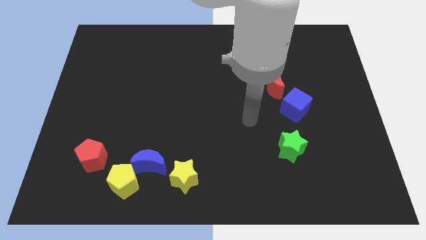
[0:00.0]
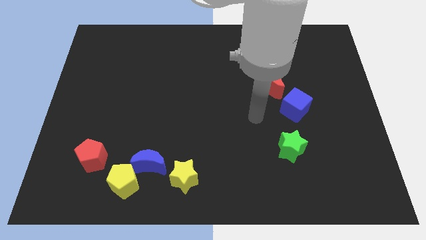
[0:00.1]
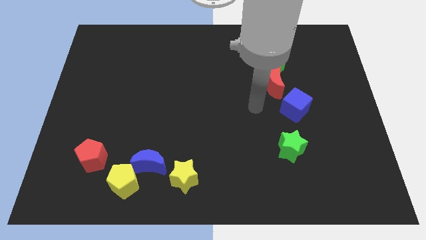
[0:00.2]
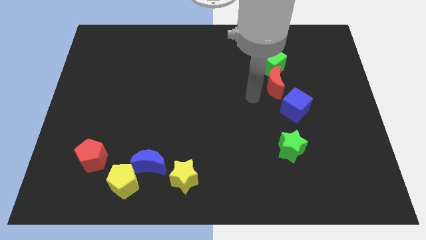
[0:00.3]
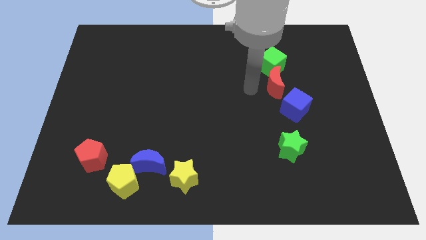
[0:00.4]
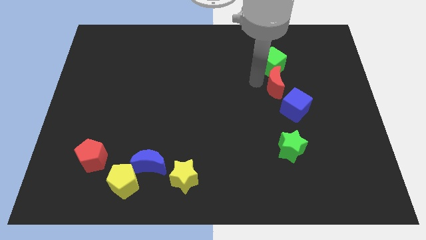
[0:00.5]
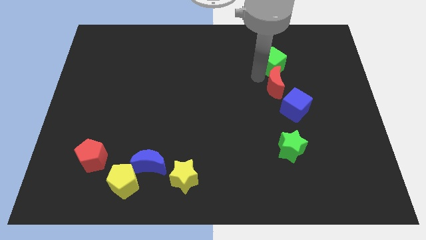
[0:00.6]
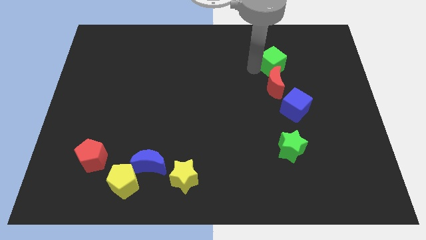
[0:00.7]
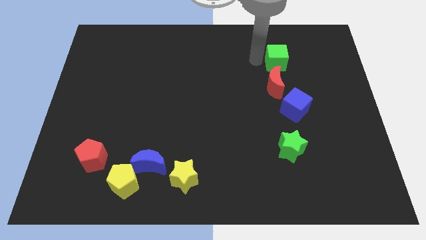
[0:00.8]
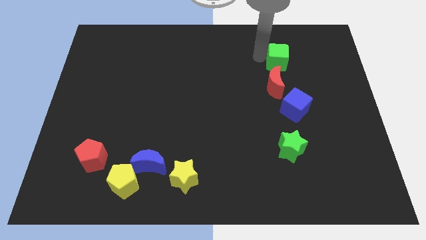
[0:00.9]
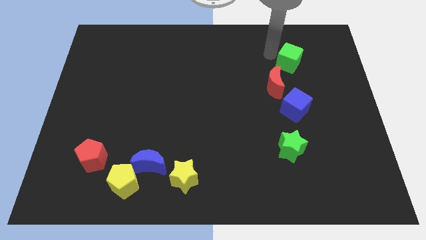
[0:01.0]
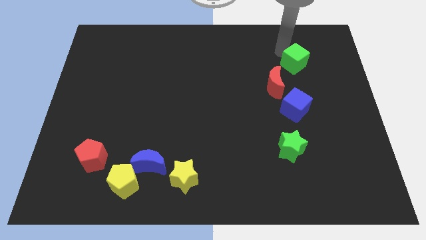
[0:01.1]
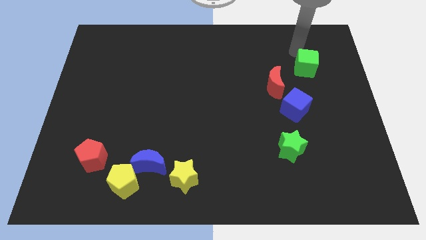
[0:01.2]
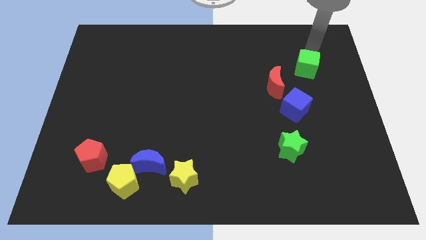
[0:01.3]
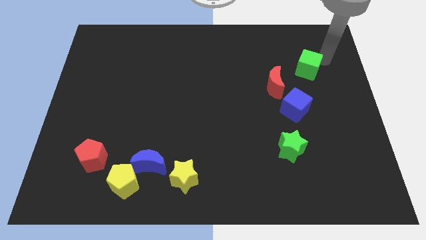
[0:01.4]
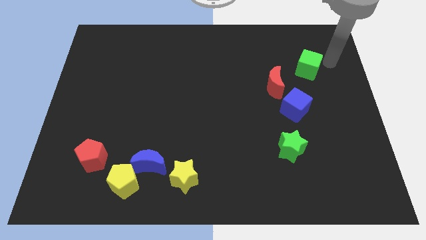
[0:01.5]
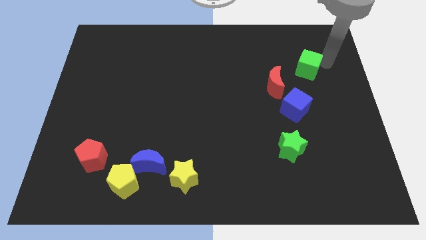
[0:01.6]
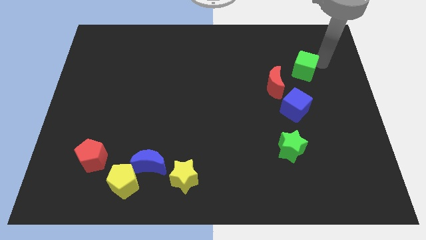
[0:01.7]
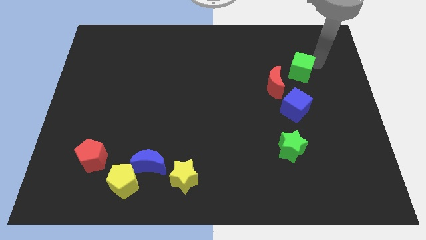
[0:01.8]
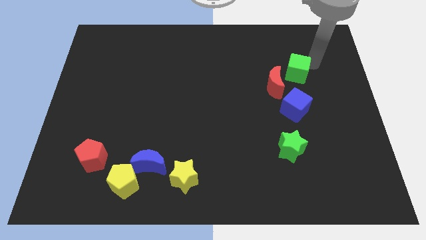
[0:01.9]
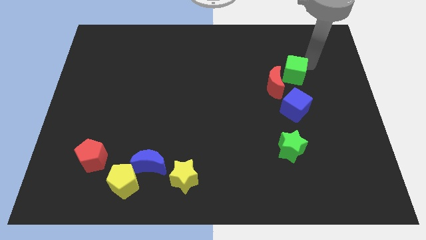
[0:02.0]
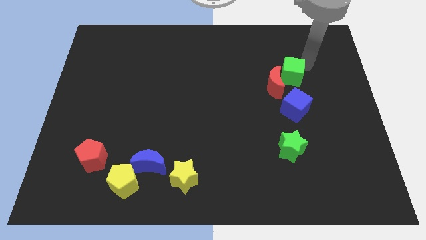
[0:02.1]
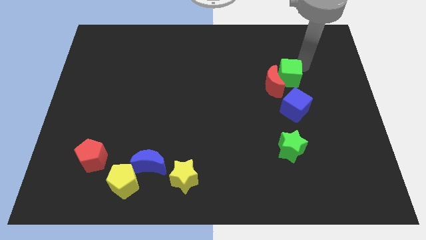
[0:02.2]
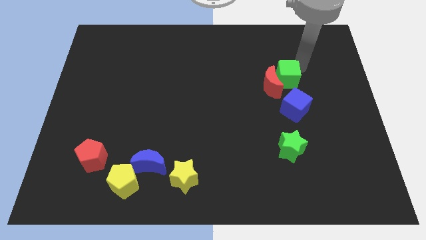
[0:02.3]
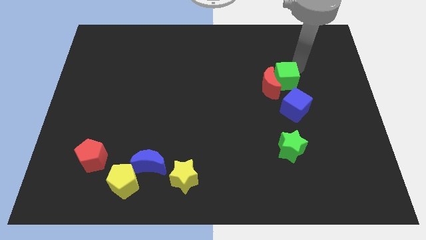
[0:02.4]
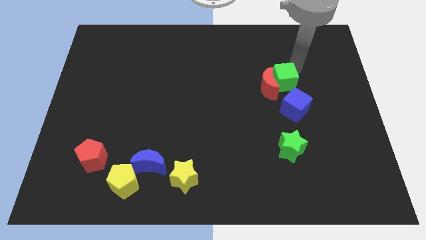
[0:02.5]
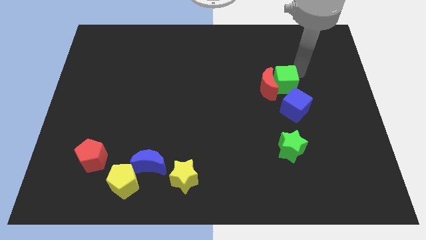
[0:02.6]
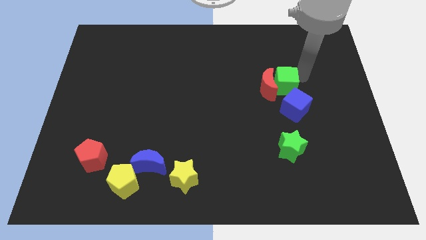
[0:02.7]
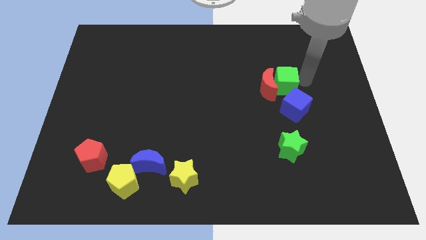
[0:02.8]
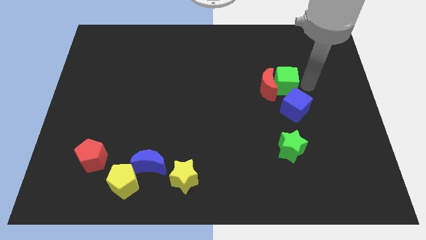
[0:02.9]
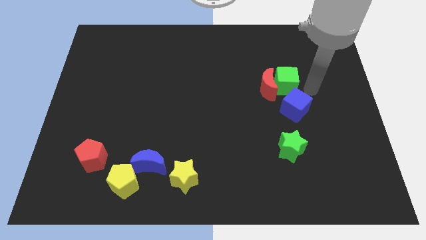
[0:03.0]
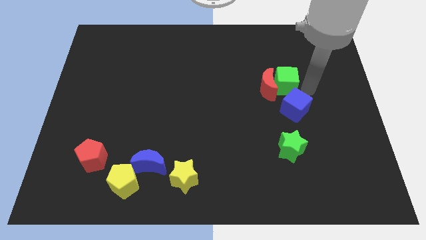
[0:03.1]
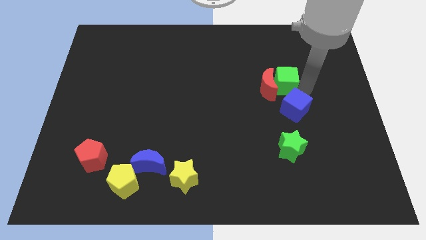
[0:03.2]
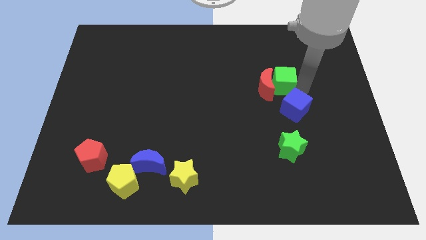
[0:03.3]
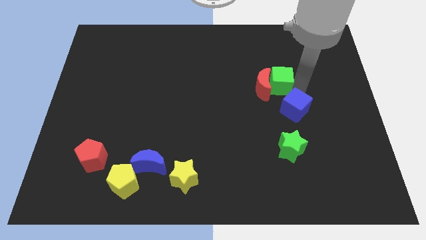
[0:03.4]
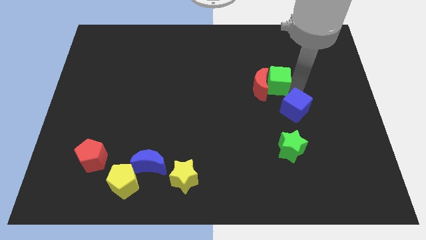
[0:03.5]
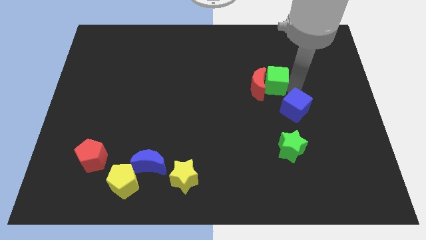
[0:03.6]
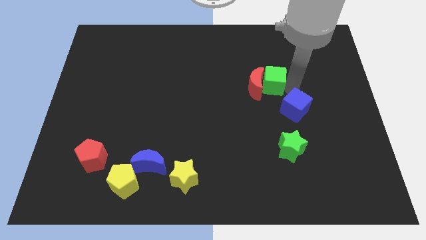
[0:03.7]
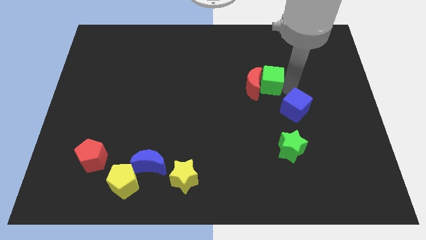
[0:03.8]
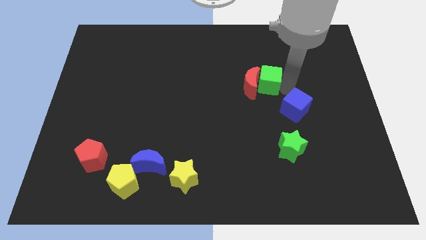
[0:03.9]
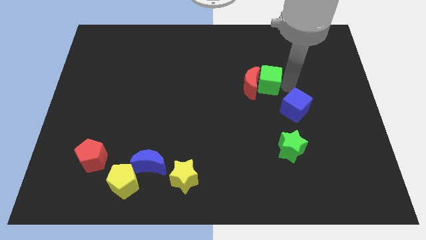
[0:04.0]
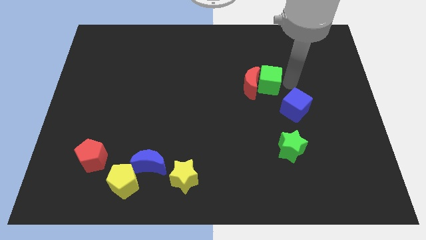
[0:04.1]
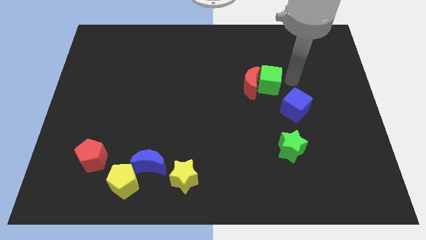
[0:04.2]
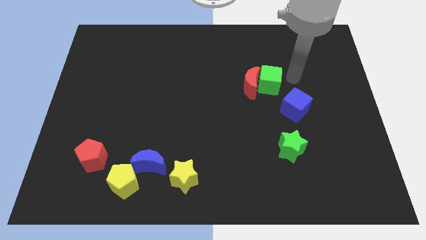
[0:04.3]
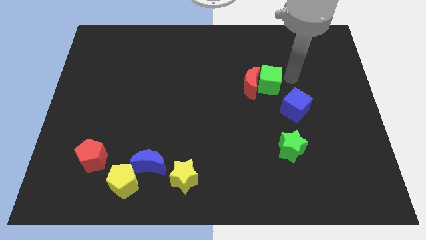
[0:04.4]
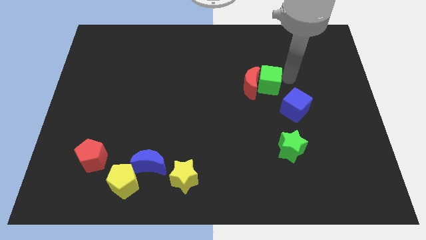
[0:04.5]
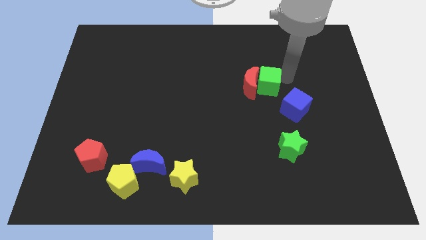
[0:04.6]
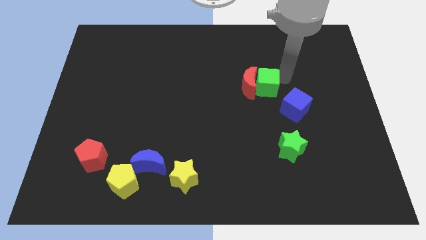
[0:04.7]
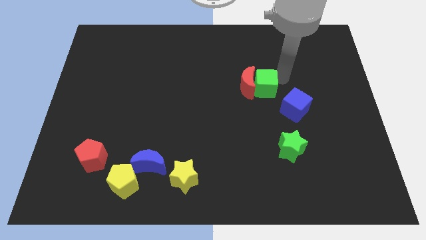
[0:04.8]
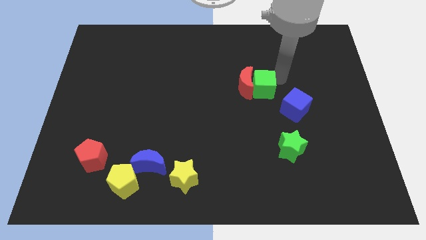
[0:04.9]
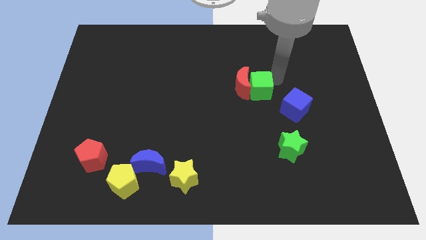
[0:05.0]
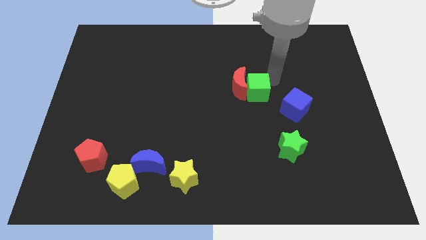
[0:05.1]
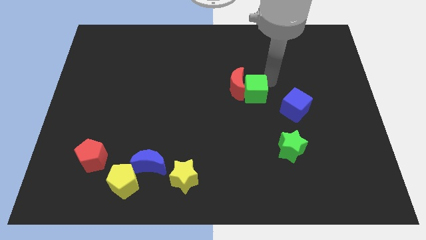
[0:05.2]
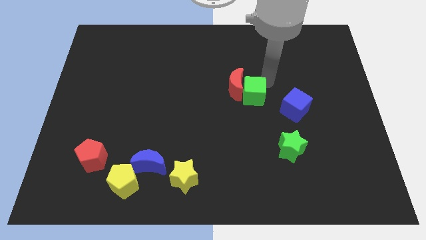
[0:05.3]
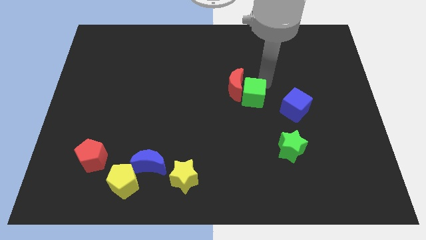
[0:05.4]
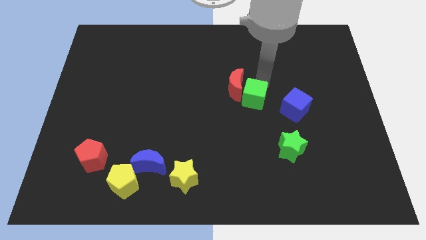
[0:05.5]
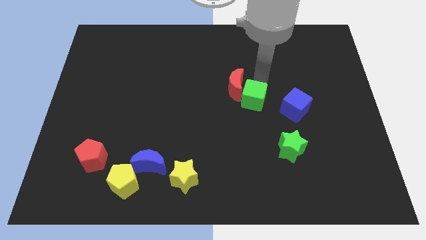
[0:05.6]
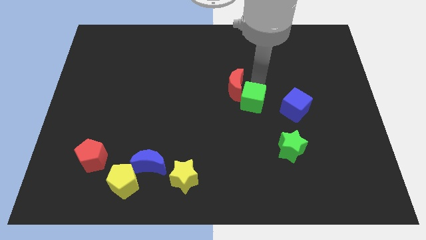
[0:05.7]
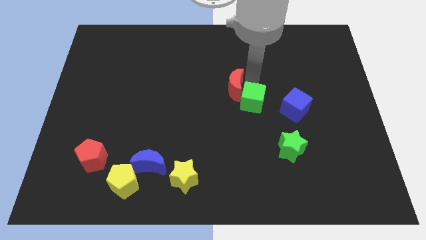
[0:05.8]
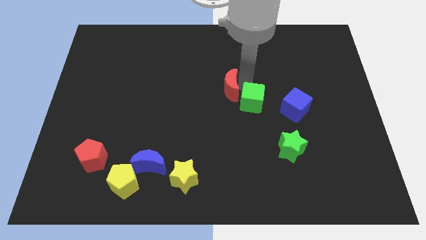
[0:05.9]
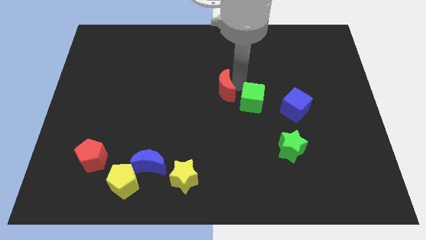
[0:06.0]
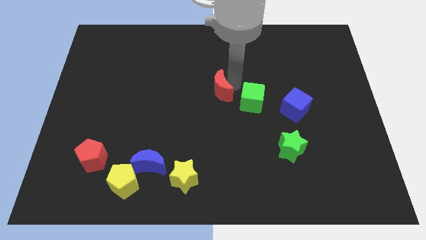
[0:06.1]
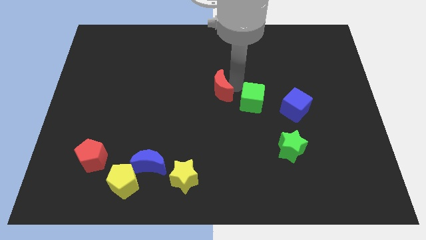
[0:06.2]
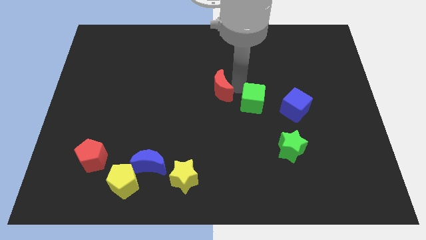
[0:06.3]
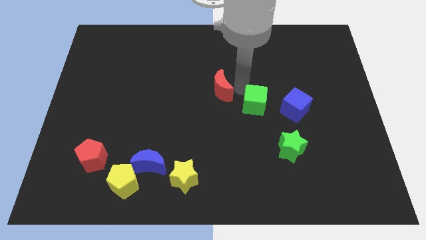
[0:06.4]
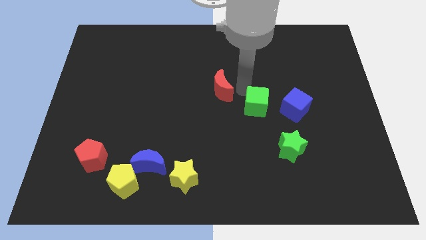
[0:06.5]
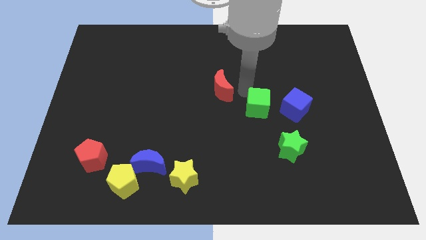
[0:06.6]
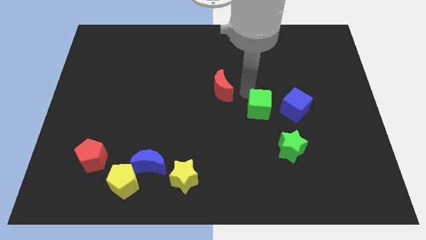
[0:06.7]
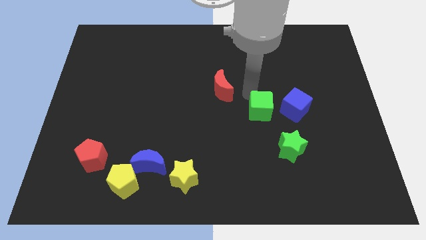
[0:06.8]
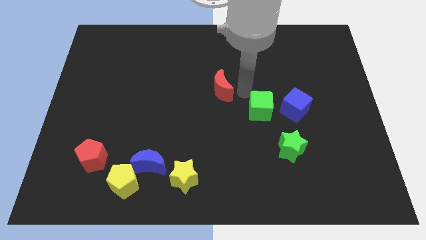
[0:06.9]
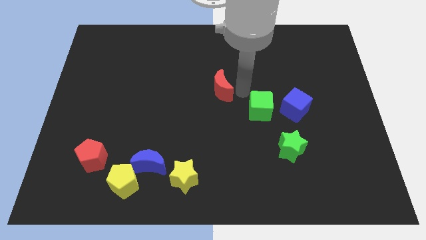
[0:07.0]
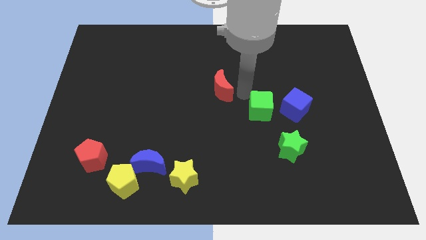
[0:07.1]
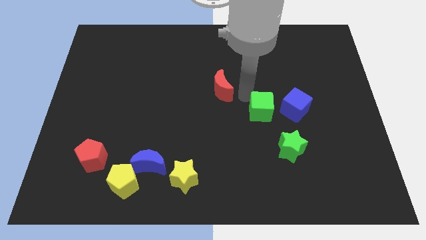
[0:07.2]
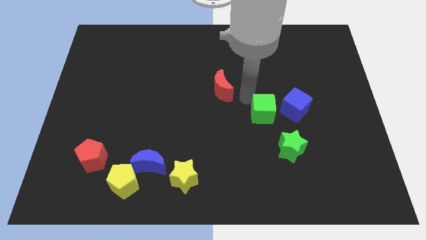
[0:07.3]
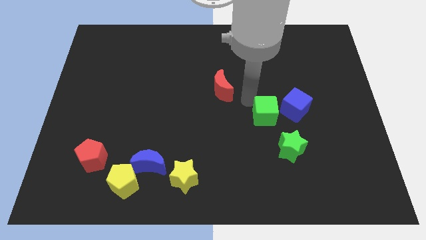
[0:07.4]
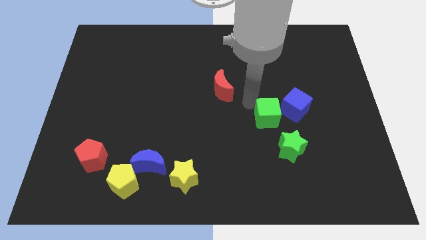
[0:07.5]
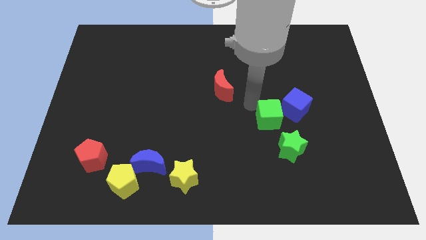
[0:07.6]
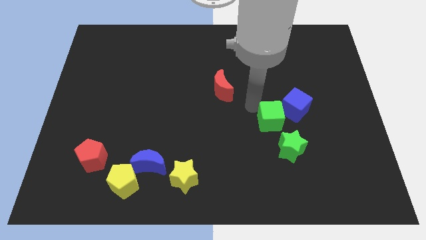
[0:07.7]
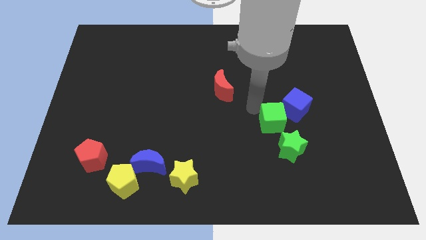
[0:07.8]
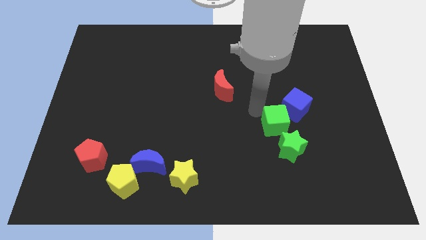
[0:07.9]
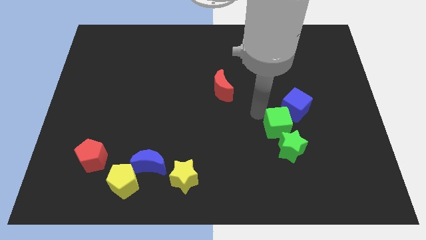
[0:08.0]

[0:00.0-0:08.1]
slide the green cube close to the green star
